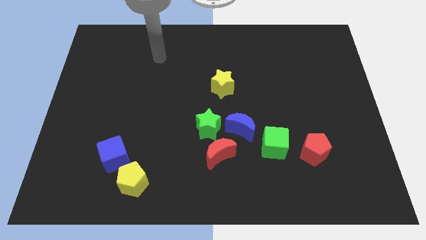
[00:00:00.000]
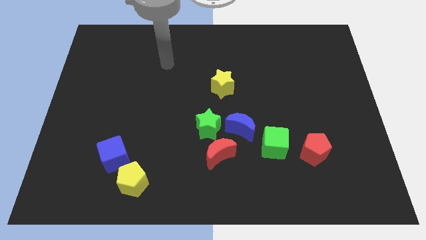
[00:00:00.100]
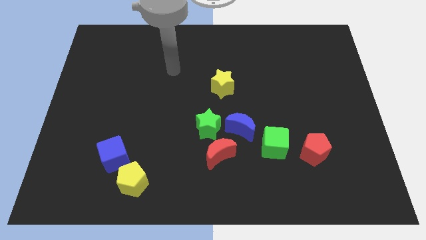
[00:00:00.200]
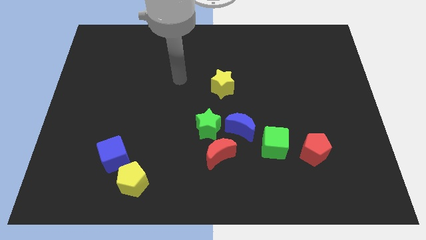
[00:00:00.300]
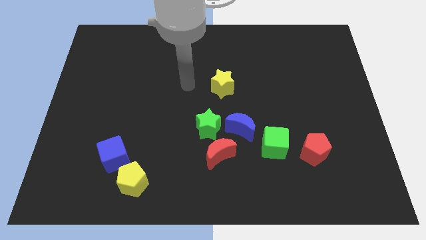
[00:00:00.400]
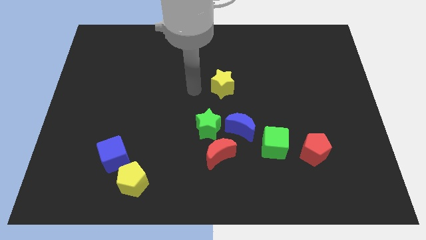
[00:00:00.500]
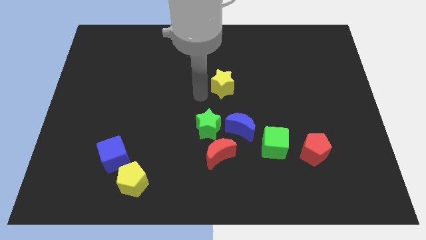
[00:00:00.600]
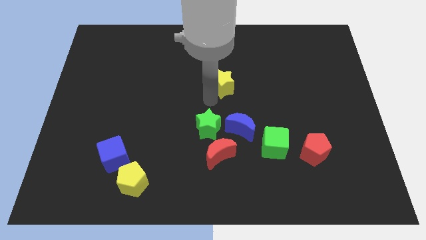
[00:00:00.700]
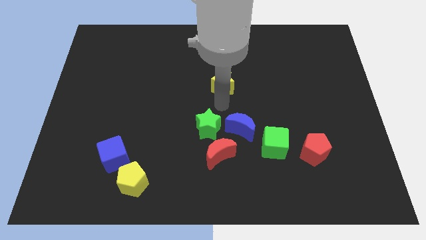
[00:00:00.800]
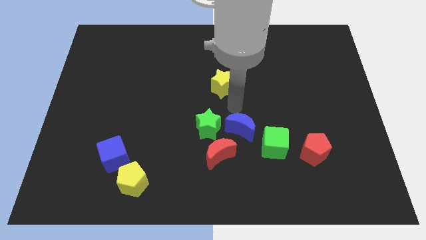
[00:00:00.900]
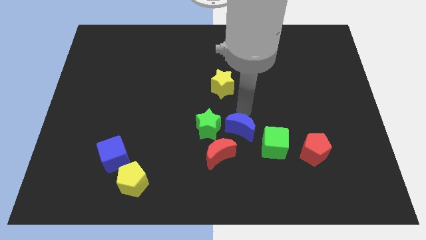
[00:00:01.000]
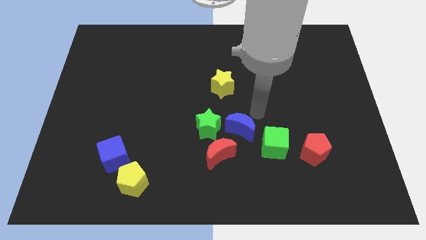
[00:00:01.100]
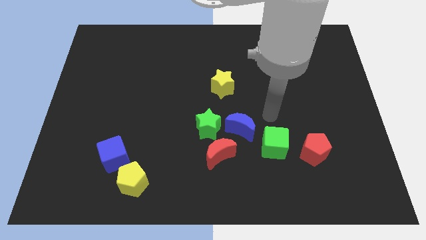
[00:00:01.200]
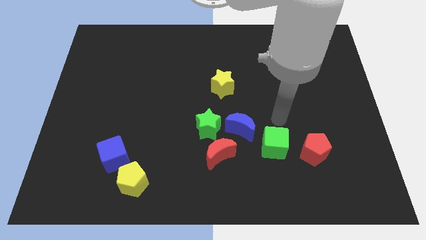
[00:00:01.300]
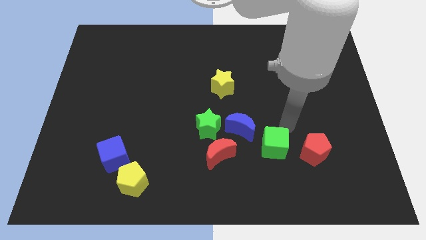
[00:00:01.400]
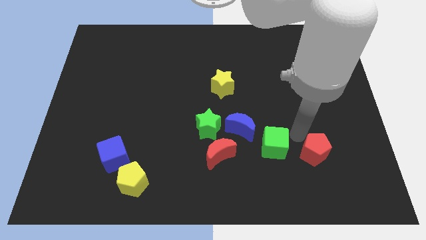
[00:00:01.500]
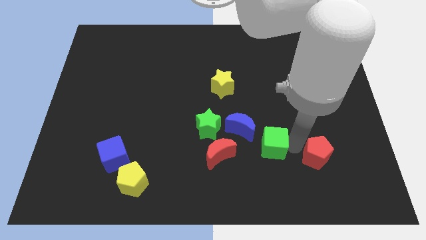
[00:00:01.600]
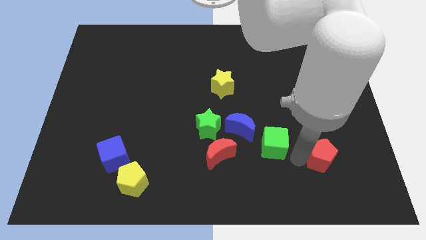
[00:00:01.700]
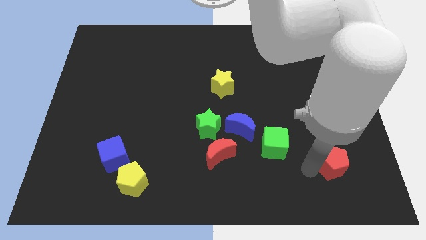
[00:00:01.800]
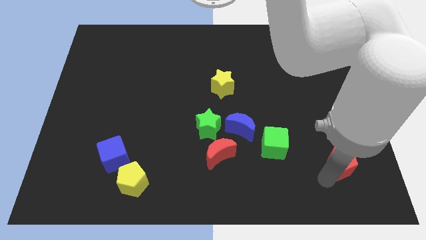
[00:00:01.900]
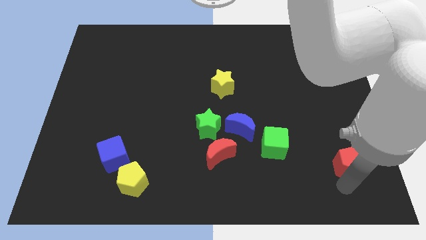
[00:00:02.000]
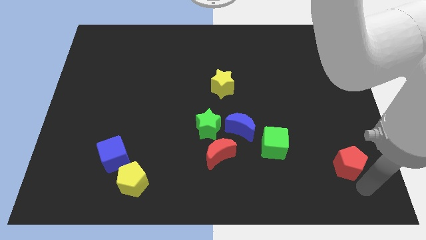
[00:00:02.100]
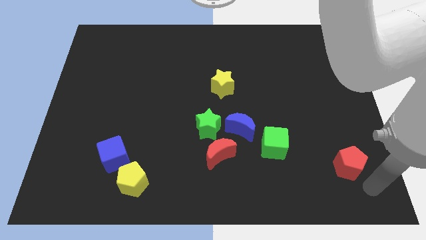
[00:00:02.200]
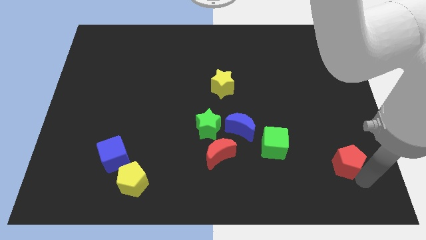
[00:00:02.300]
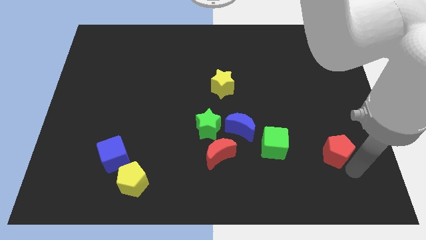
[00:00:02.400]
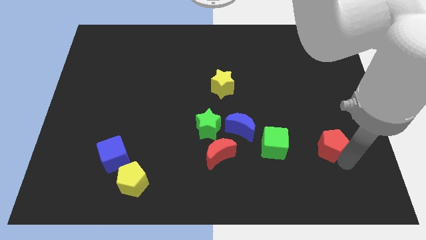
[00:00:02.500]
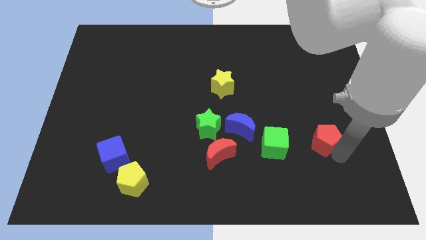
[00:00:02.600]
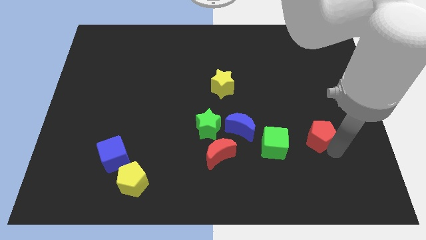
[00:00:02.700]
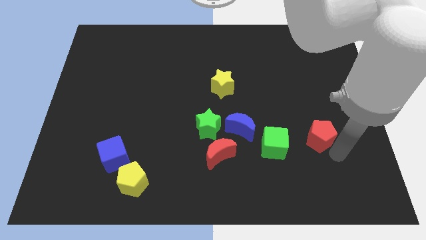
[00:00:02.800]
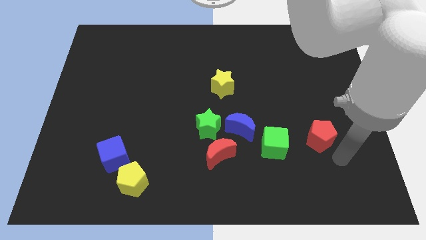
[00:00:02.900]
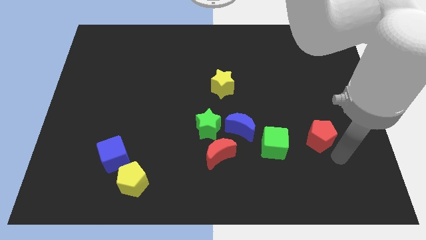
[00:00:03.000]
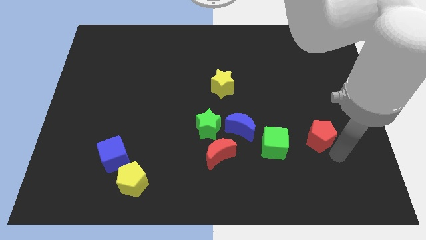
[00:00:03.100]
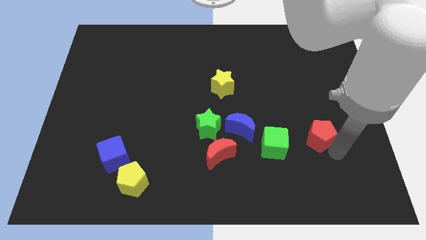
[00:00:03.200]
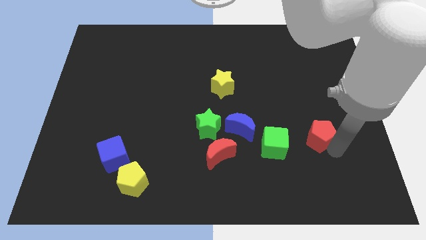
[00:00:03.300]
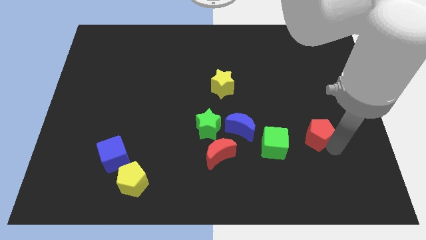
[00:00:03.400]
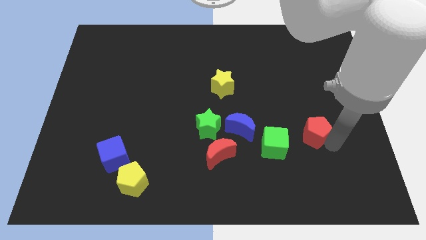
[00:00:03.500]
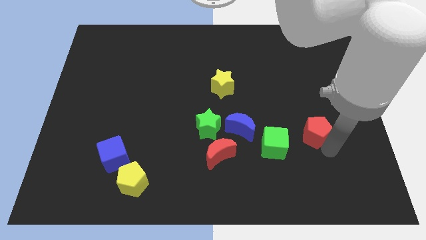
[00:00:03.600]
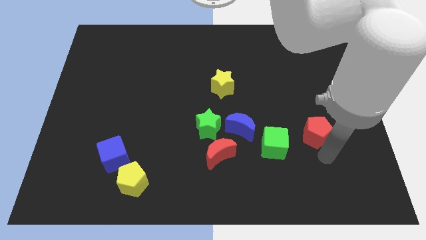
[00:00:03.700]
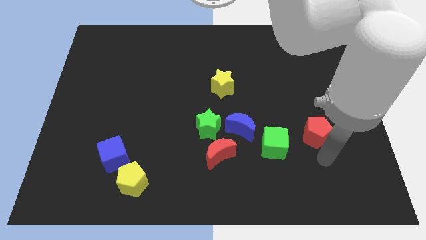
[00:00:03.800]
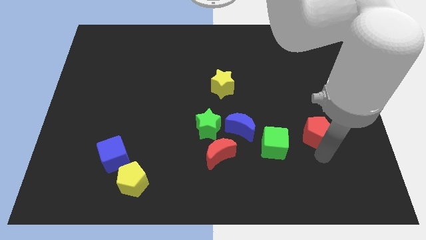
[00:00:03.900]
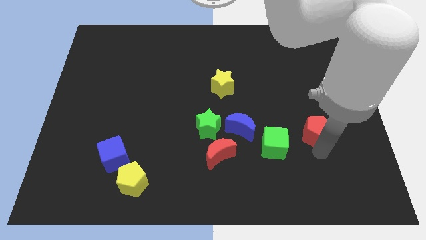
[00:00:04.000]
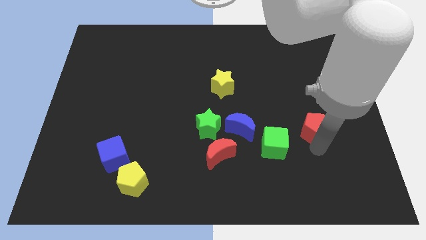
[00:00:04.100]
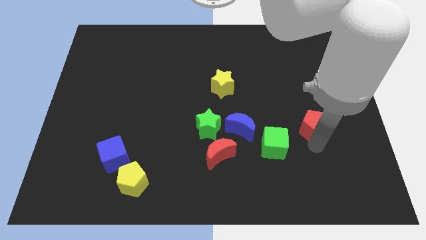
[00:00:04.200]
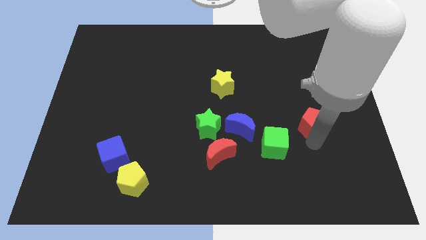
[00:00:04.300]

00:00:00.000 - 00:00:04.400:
slightly slide the red pentagon upwards

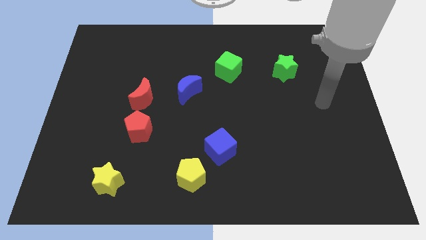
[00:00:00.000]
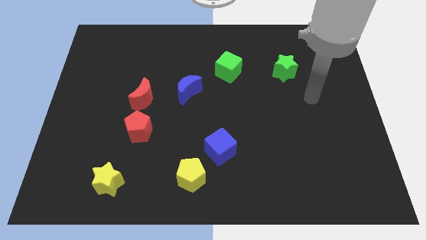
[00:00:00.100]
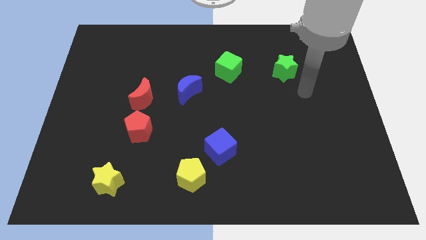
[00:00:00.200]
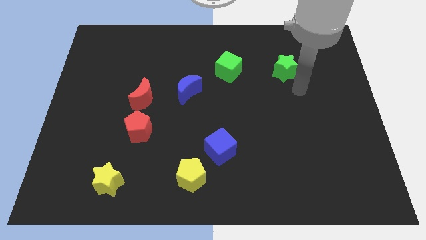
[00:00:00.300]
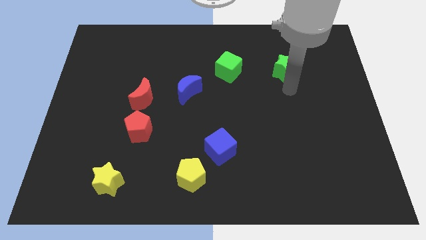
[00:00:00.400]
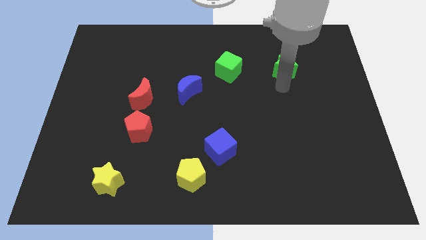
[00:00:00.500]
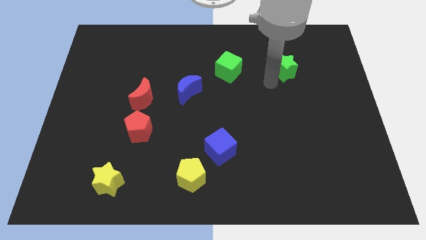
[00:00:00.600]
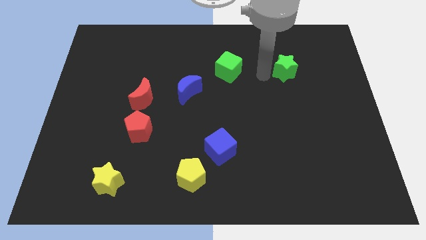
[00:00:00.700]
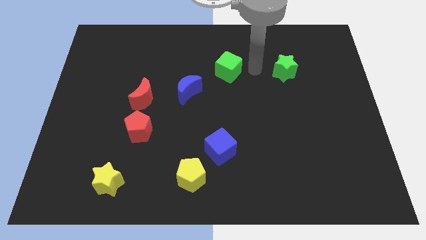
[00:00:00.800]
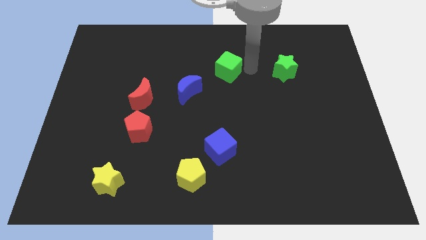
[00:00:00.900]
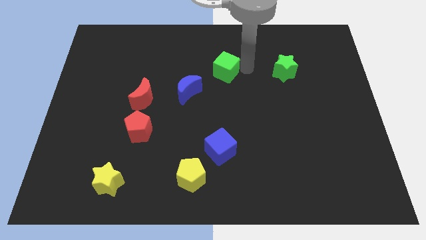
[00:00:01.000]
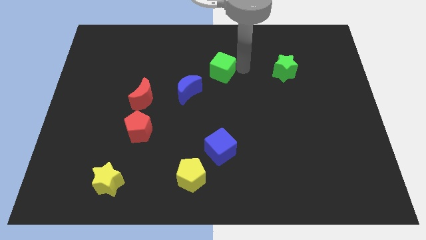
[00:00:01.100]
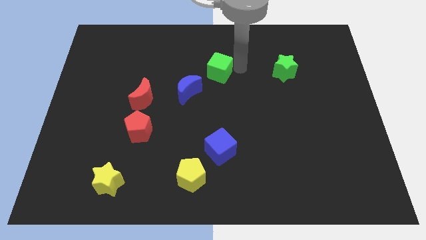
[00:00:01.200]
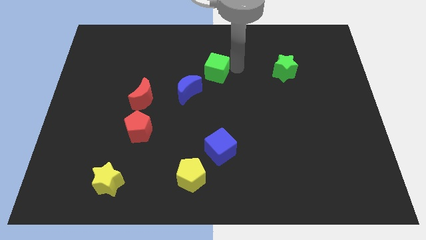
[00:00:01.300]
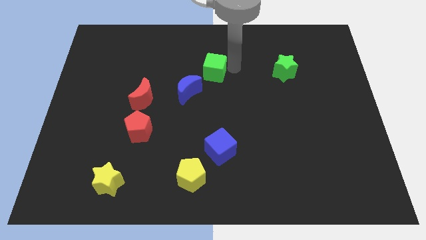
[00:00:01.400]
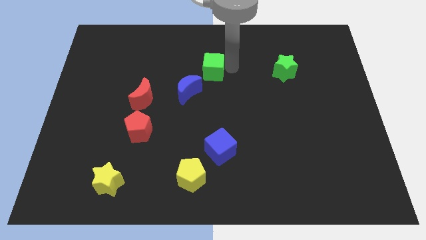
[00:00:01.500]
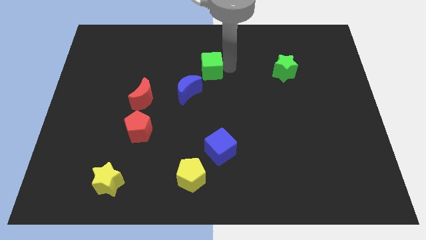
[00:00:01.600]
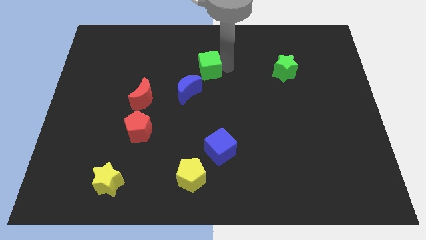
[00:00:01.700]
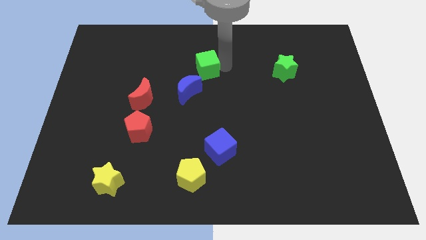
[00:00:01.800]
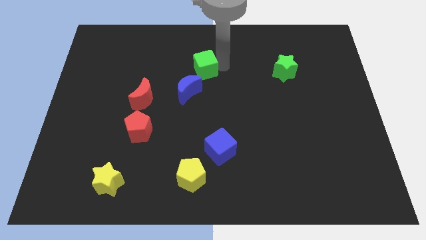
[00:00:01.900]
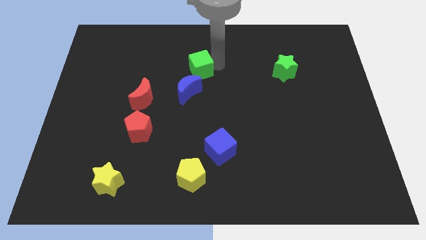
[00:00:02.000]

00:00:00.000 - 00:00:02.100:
move the green cube left slightly

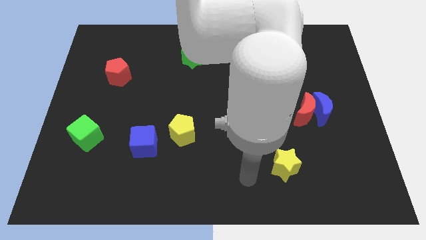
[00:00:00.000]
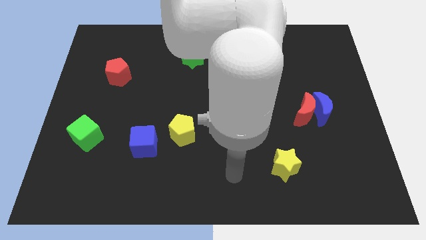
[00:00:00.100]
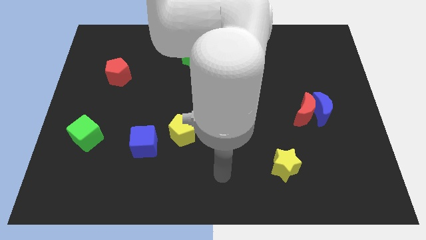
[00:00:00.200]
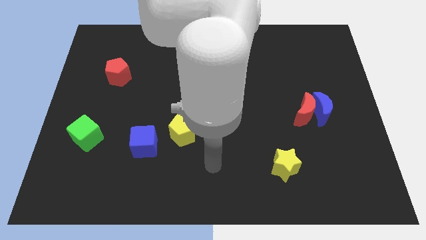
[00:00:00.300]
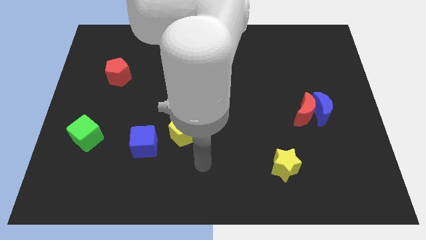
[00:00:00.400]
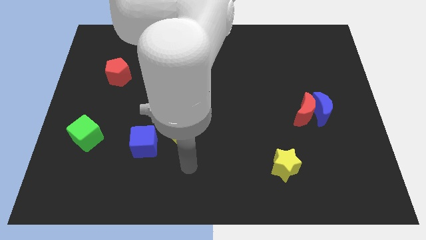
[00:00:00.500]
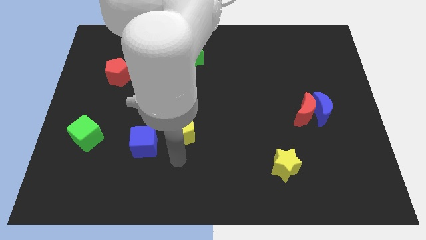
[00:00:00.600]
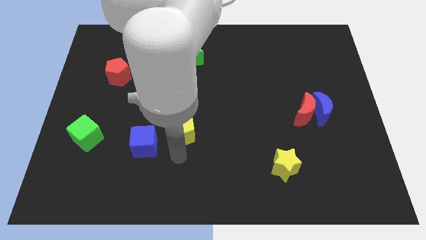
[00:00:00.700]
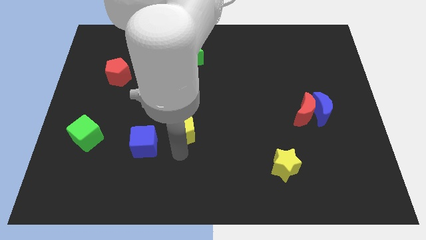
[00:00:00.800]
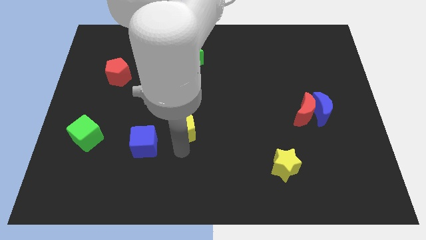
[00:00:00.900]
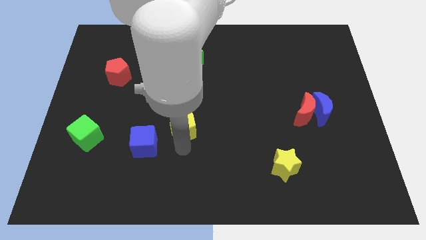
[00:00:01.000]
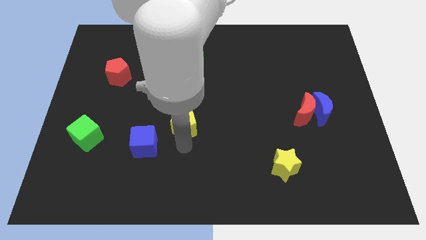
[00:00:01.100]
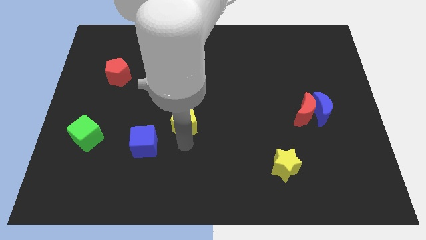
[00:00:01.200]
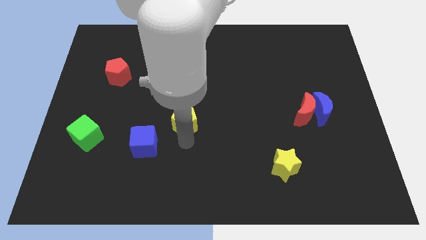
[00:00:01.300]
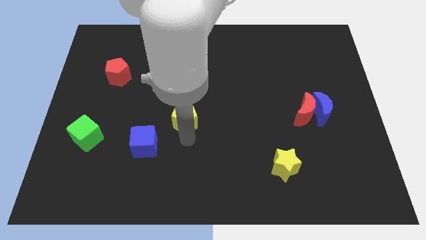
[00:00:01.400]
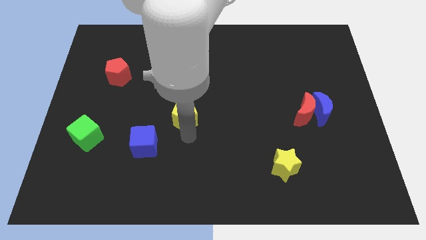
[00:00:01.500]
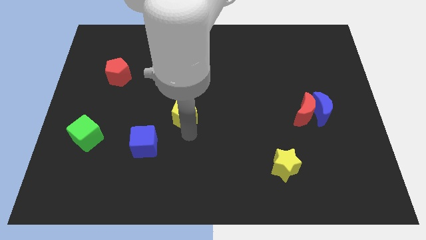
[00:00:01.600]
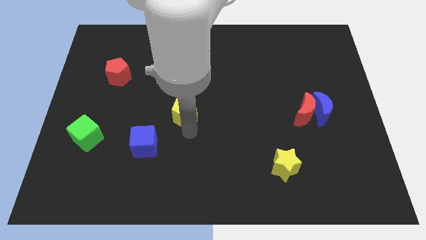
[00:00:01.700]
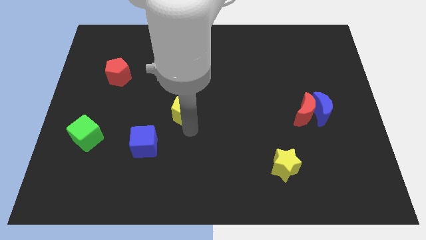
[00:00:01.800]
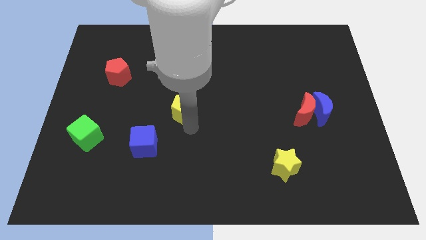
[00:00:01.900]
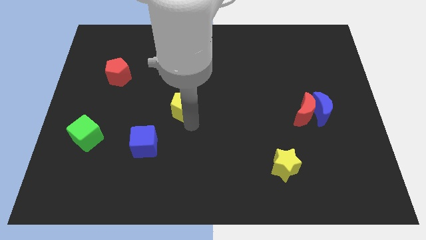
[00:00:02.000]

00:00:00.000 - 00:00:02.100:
move the yellow pentagon slightly up
